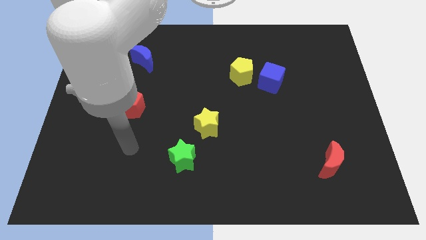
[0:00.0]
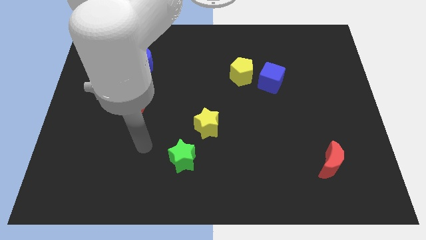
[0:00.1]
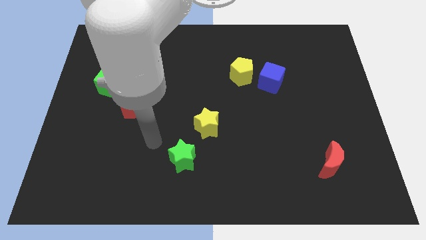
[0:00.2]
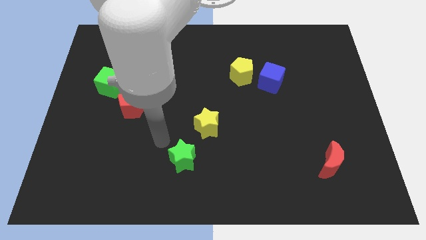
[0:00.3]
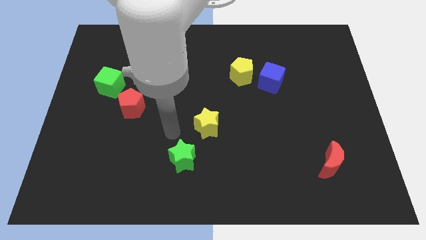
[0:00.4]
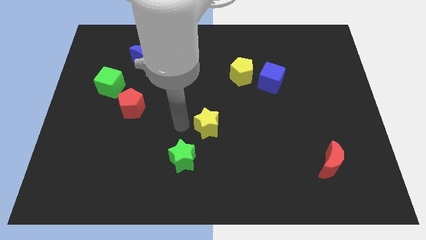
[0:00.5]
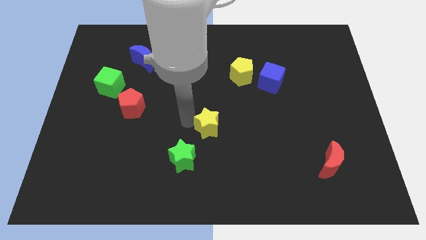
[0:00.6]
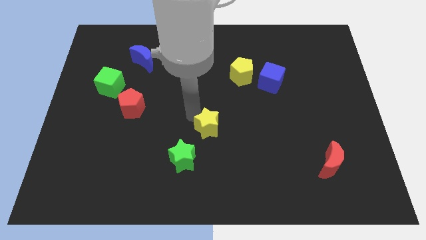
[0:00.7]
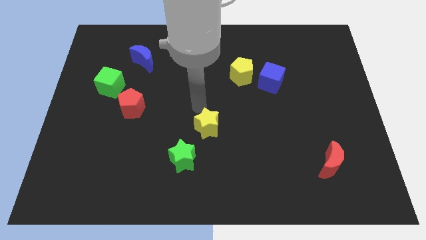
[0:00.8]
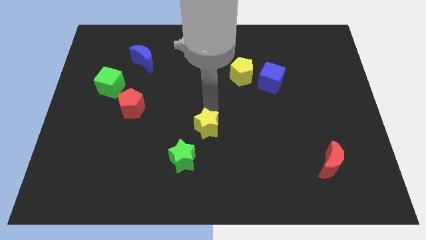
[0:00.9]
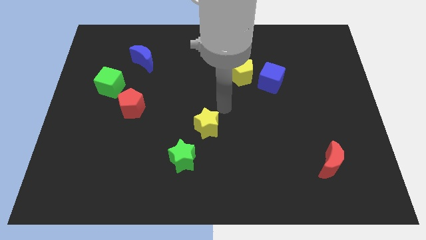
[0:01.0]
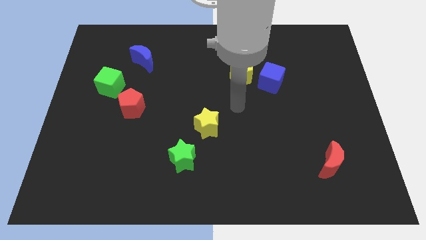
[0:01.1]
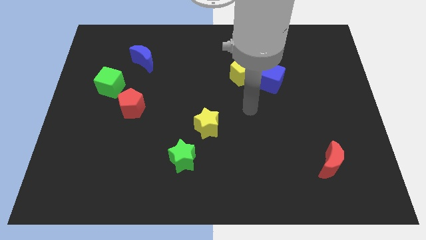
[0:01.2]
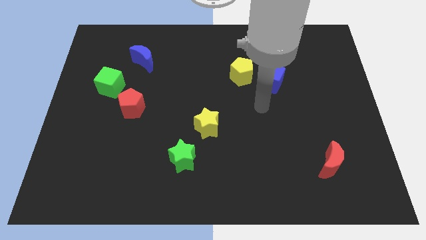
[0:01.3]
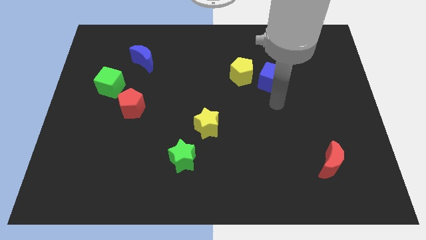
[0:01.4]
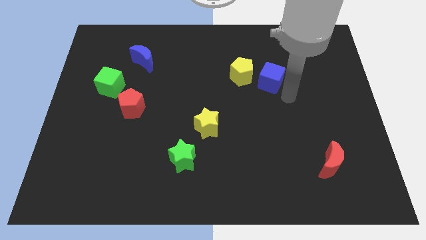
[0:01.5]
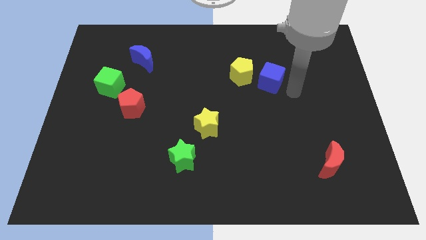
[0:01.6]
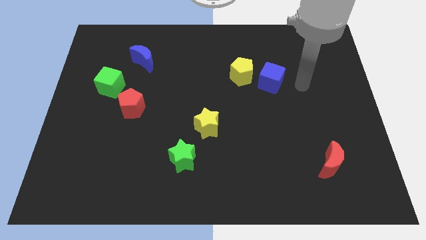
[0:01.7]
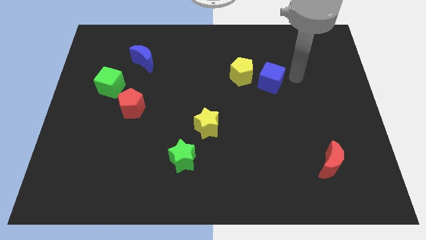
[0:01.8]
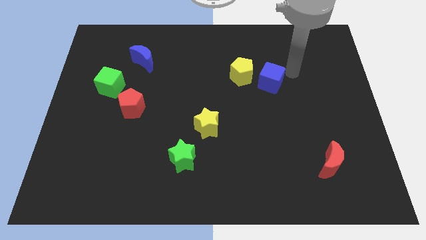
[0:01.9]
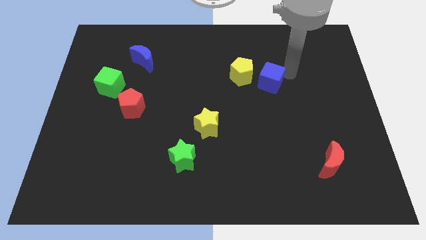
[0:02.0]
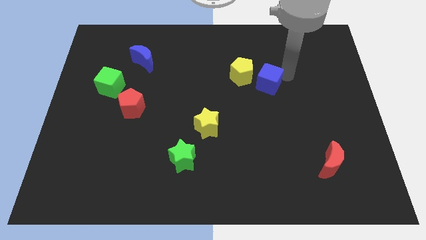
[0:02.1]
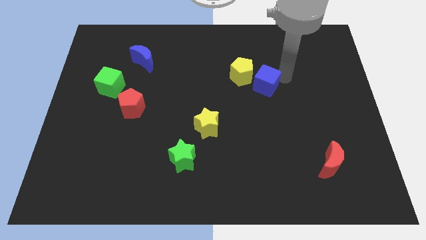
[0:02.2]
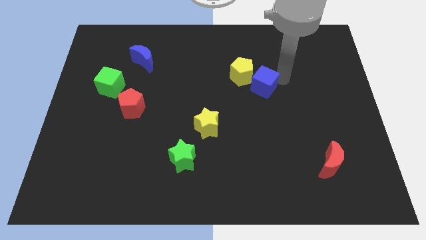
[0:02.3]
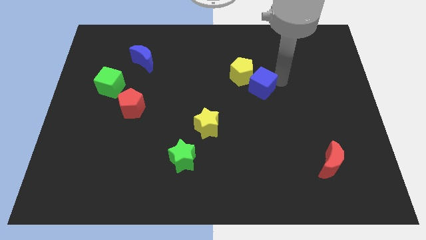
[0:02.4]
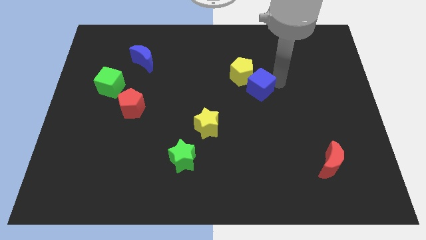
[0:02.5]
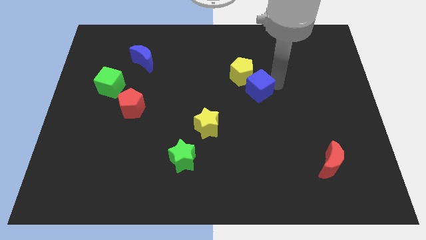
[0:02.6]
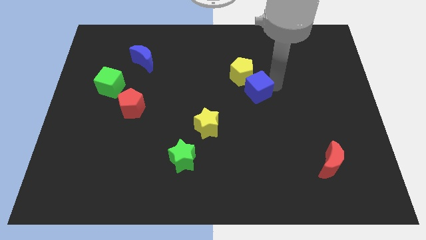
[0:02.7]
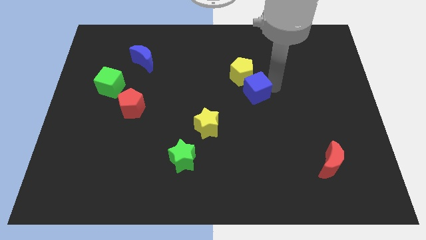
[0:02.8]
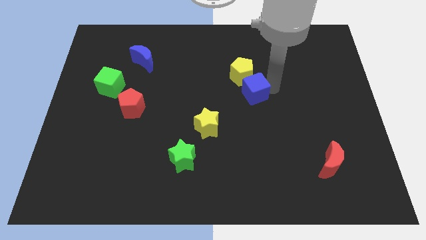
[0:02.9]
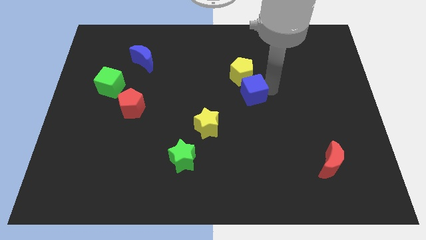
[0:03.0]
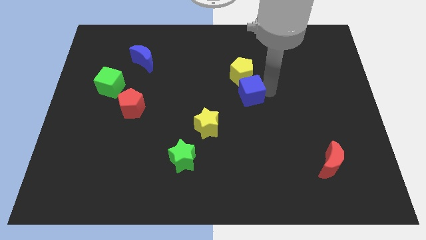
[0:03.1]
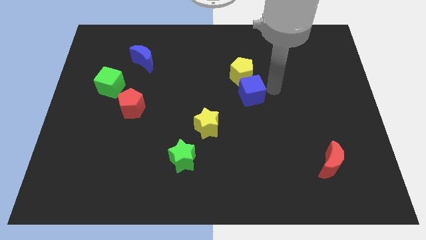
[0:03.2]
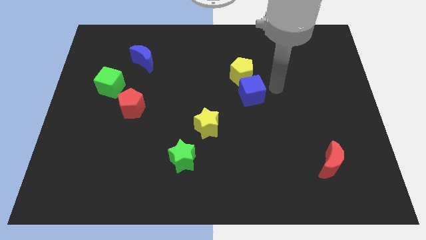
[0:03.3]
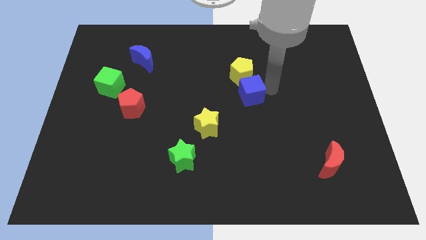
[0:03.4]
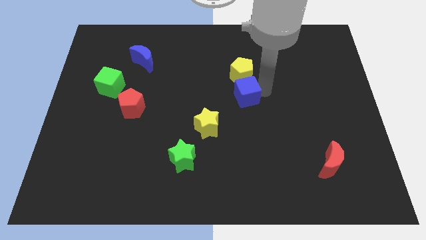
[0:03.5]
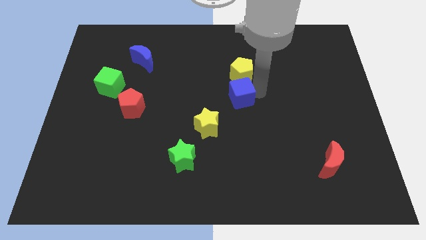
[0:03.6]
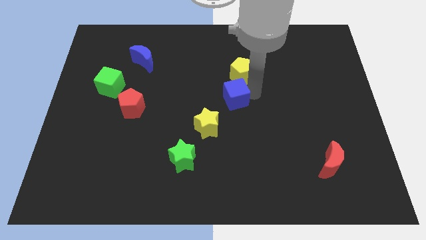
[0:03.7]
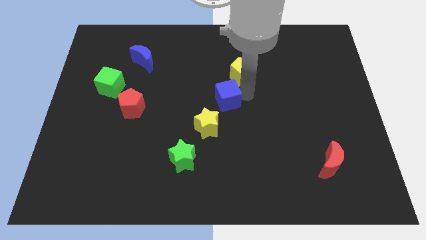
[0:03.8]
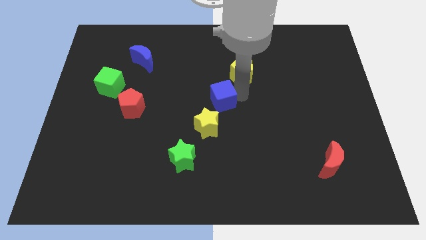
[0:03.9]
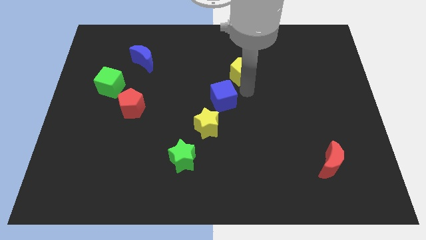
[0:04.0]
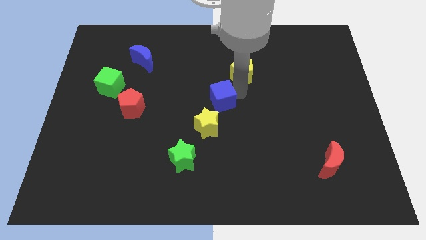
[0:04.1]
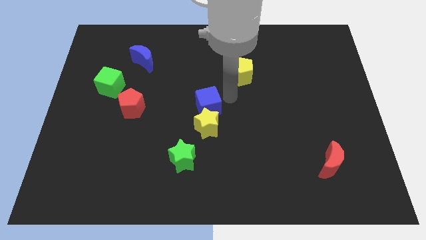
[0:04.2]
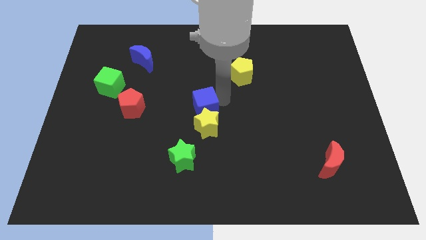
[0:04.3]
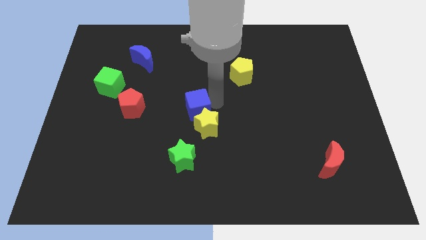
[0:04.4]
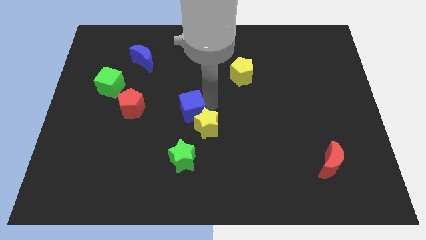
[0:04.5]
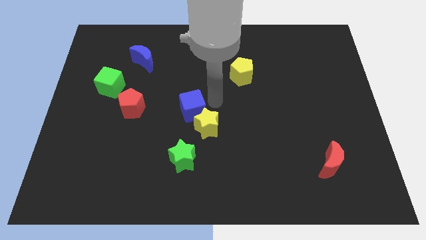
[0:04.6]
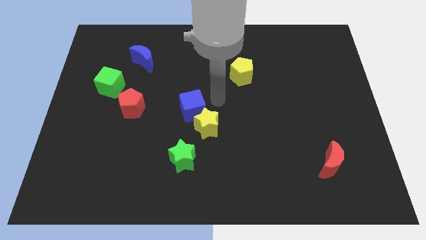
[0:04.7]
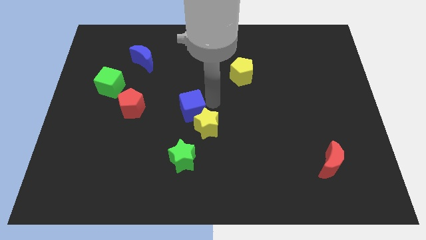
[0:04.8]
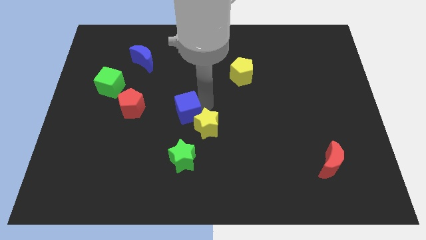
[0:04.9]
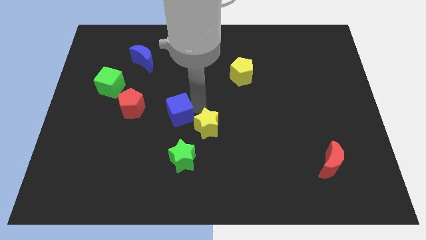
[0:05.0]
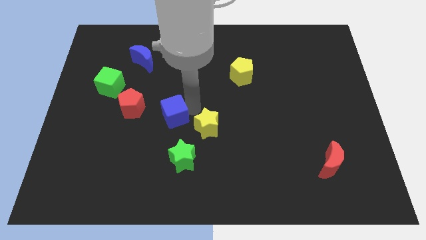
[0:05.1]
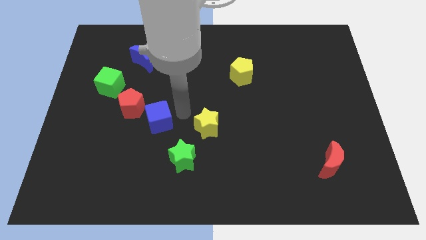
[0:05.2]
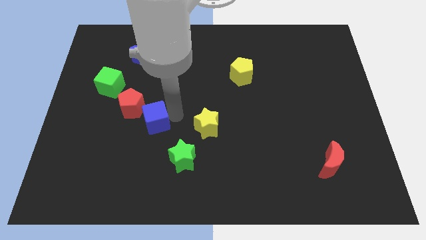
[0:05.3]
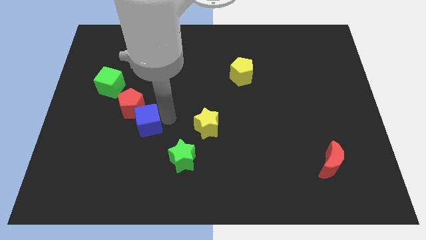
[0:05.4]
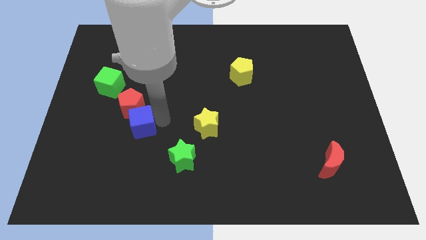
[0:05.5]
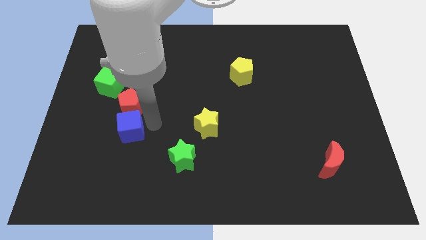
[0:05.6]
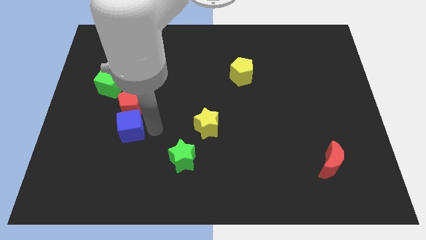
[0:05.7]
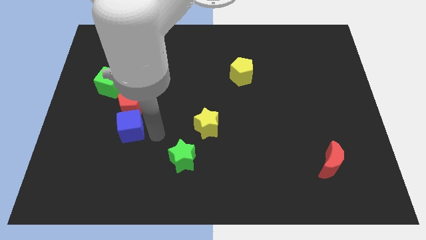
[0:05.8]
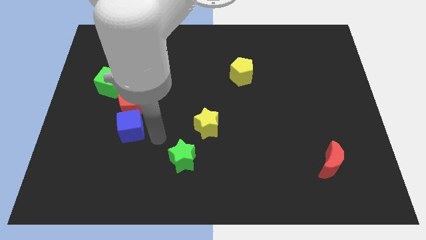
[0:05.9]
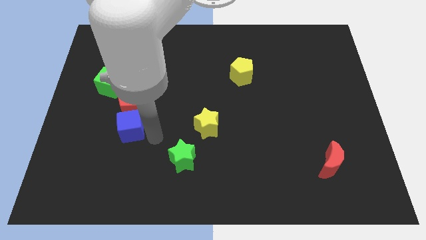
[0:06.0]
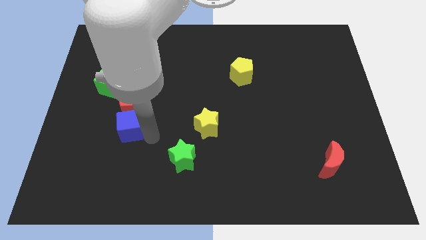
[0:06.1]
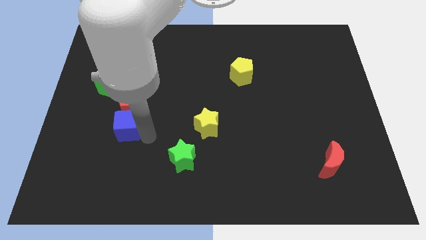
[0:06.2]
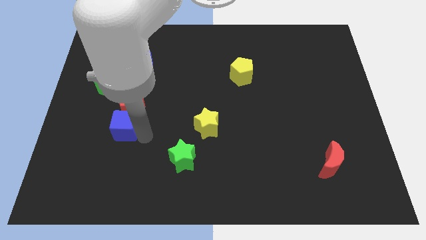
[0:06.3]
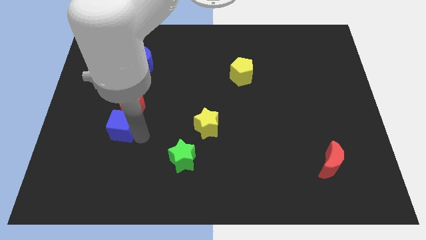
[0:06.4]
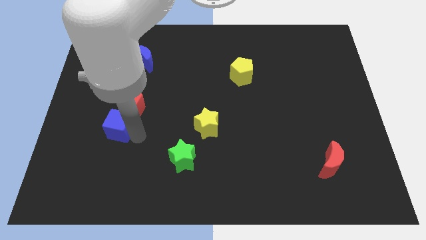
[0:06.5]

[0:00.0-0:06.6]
push the blue cube below the green cube

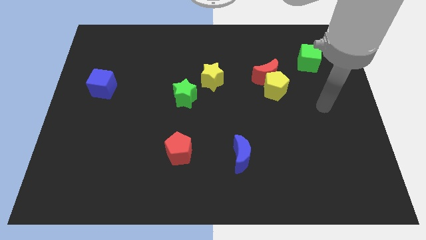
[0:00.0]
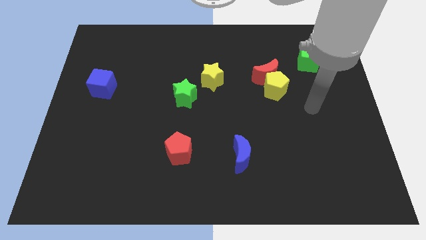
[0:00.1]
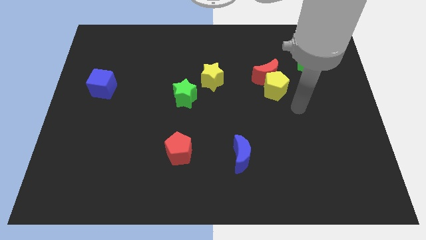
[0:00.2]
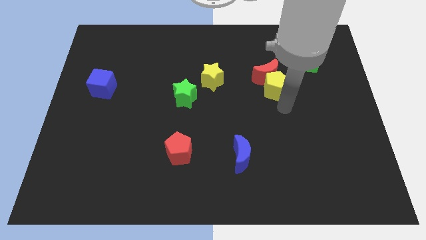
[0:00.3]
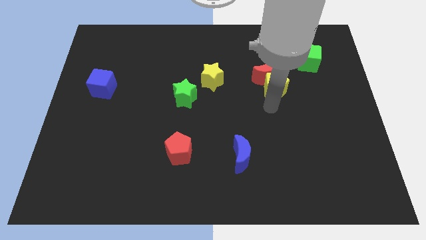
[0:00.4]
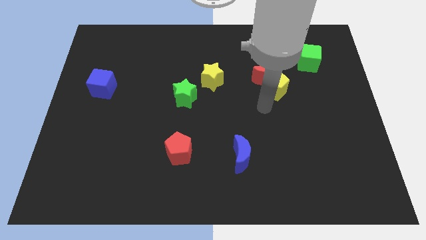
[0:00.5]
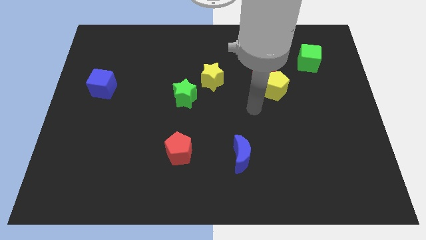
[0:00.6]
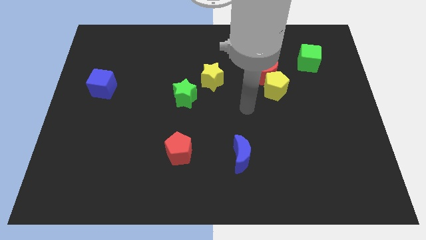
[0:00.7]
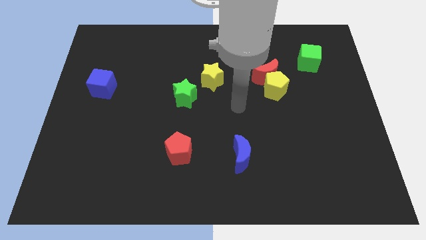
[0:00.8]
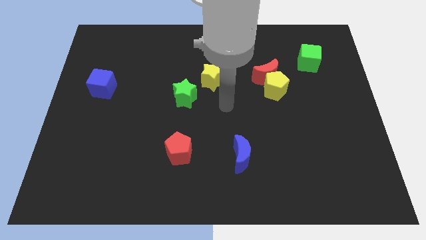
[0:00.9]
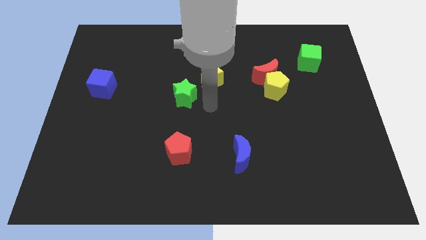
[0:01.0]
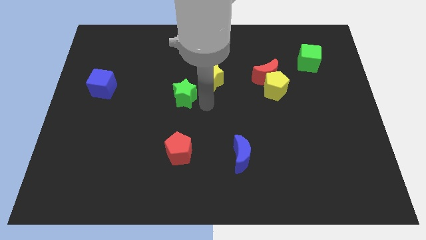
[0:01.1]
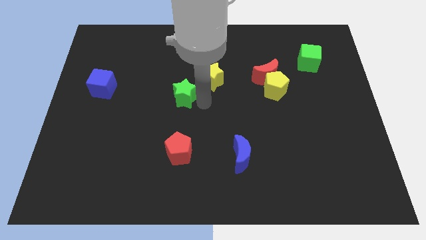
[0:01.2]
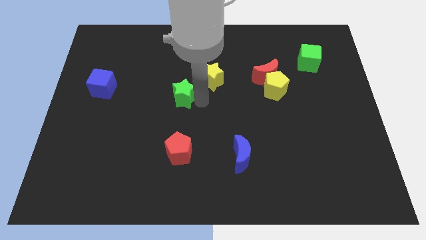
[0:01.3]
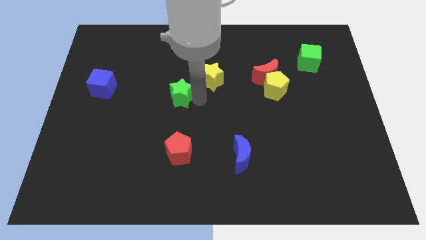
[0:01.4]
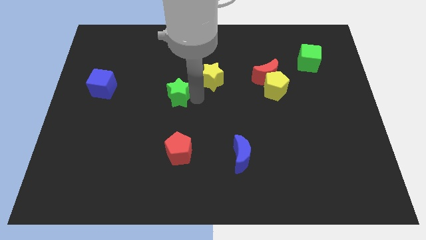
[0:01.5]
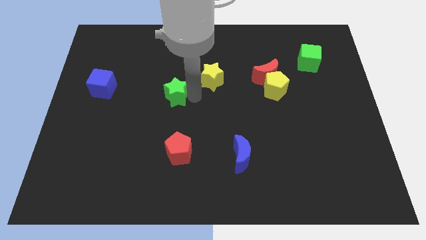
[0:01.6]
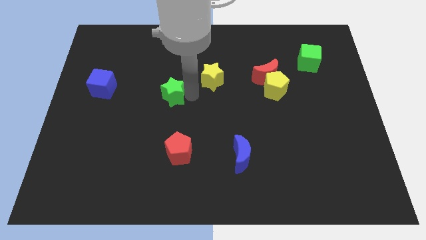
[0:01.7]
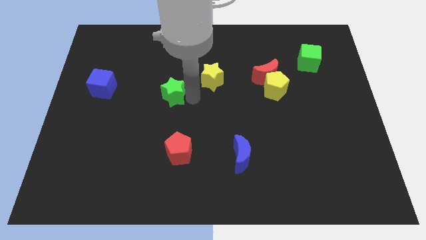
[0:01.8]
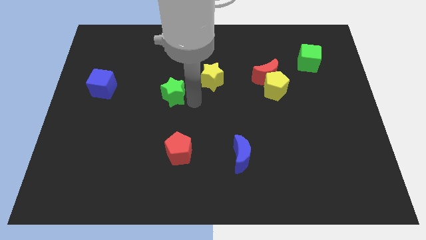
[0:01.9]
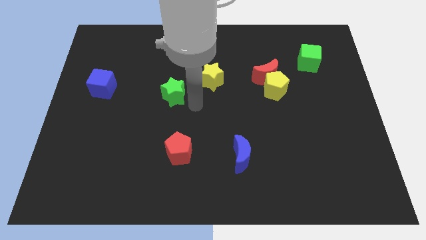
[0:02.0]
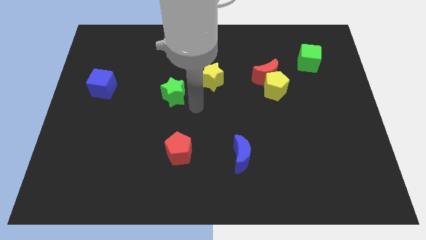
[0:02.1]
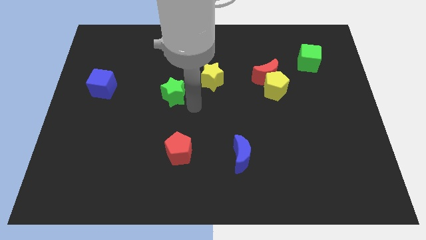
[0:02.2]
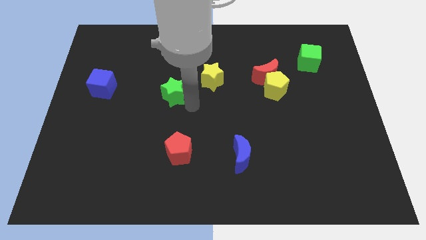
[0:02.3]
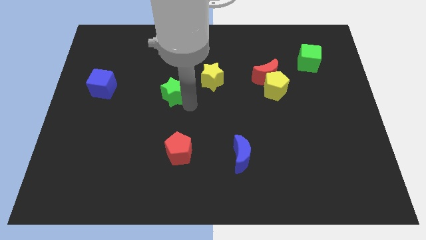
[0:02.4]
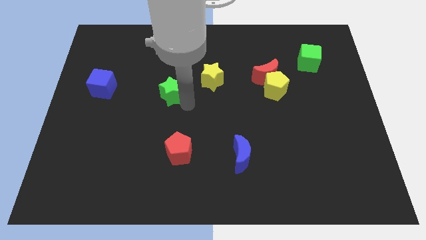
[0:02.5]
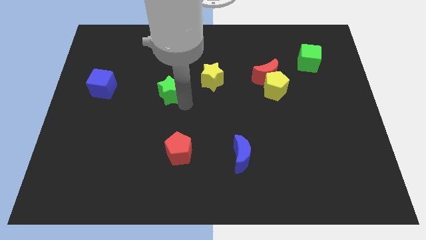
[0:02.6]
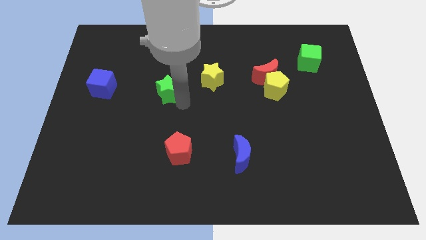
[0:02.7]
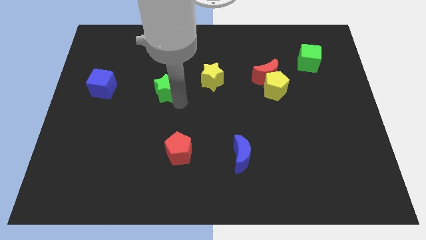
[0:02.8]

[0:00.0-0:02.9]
put the green star just right of the blue cube
